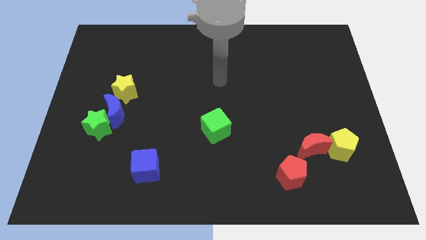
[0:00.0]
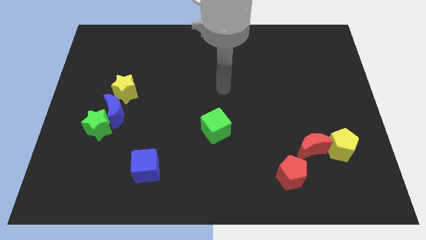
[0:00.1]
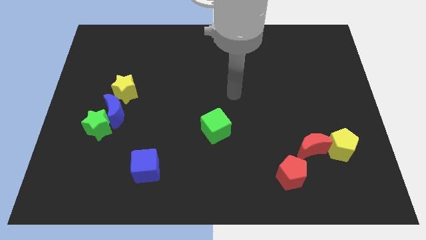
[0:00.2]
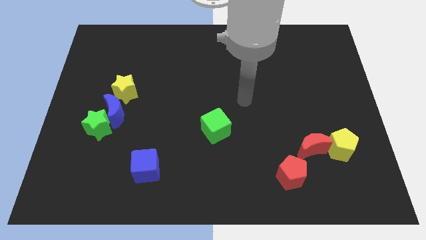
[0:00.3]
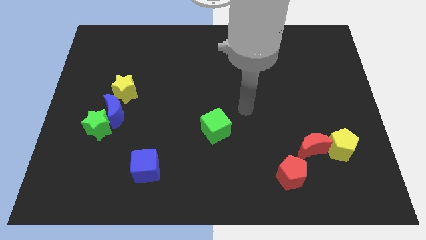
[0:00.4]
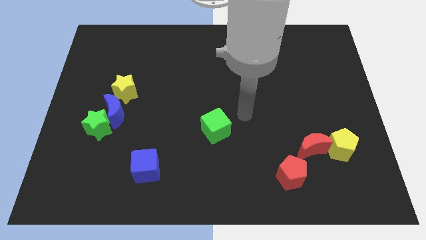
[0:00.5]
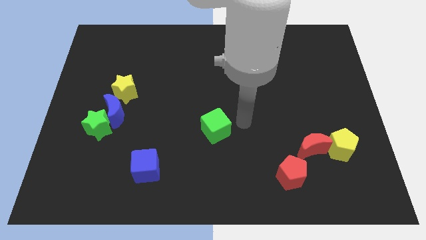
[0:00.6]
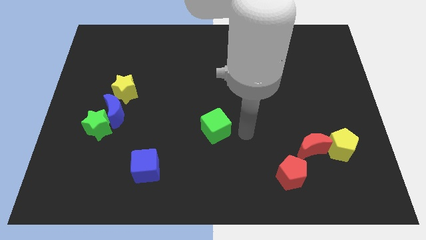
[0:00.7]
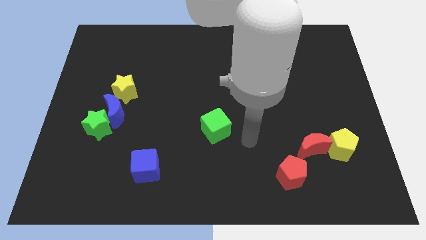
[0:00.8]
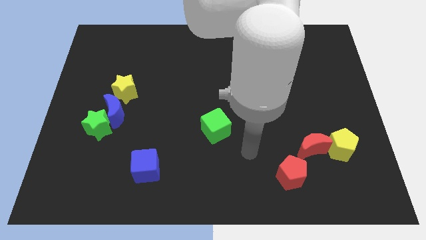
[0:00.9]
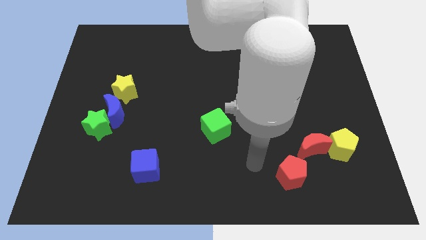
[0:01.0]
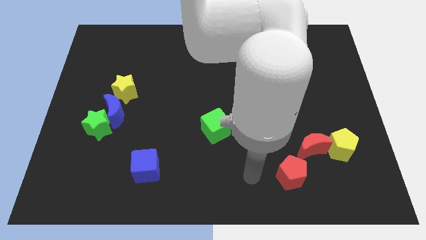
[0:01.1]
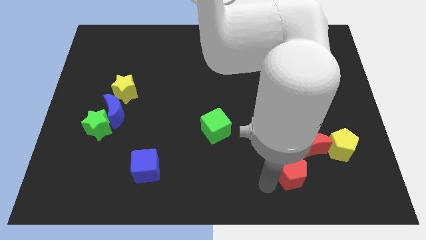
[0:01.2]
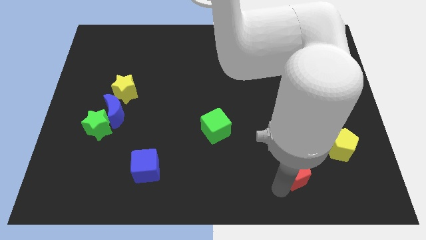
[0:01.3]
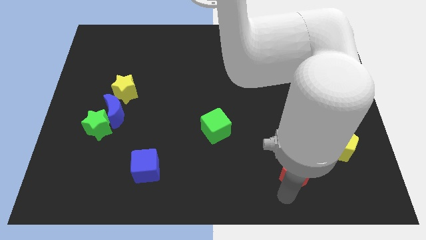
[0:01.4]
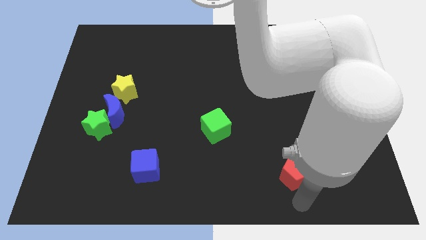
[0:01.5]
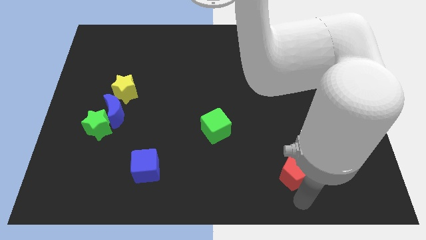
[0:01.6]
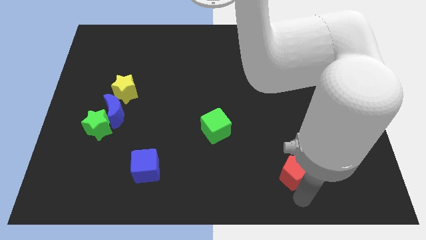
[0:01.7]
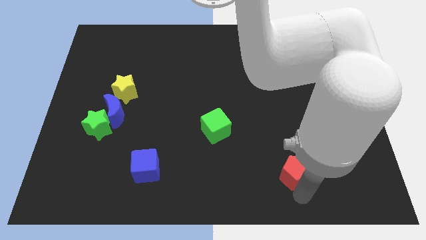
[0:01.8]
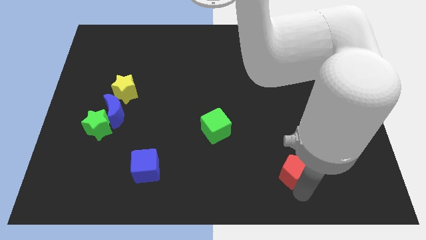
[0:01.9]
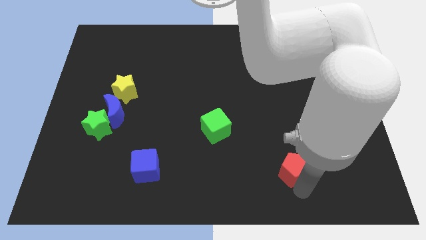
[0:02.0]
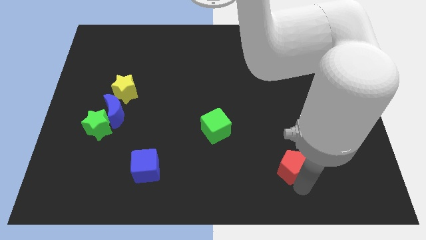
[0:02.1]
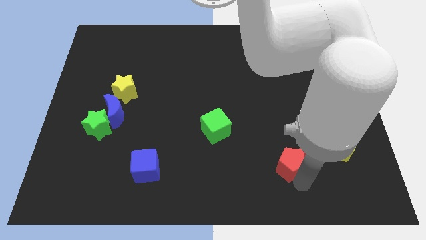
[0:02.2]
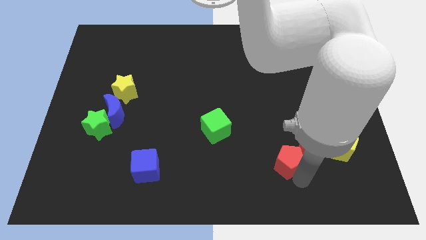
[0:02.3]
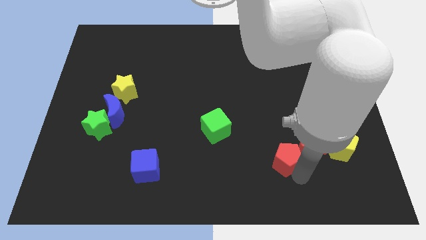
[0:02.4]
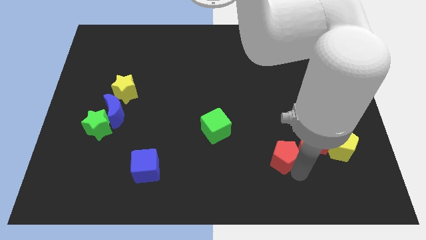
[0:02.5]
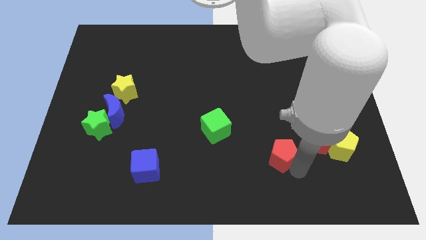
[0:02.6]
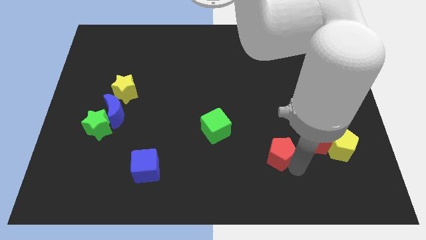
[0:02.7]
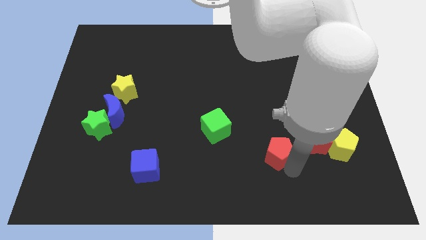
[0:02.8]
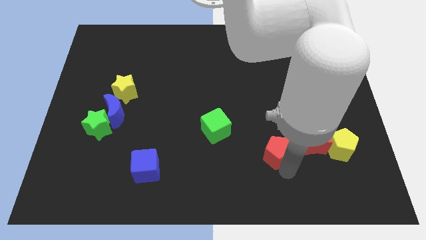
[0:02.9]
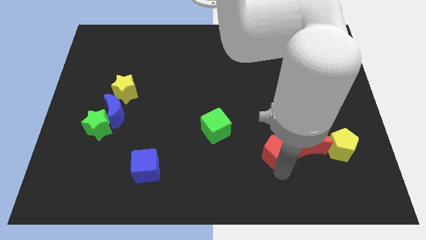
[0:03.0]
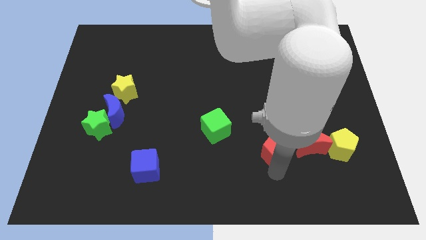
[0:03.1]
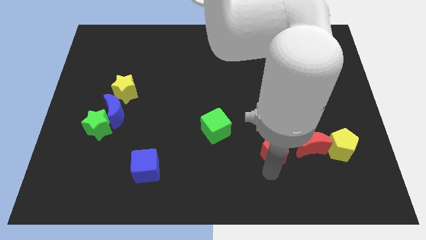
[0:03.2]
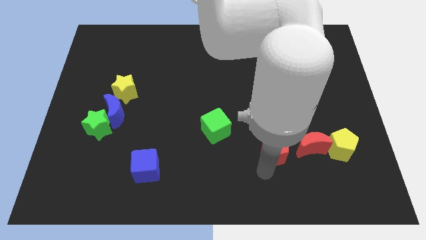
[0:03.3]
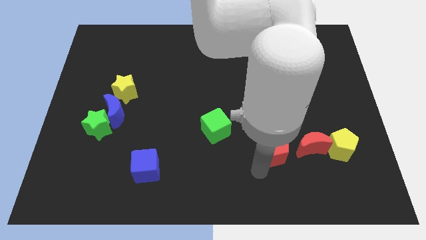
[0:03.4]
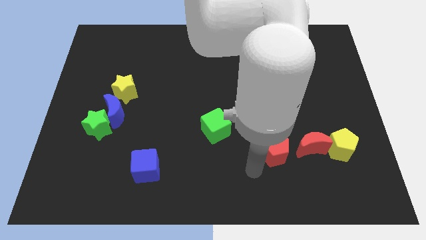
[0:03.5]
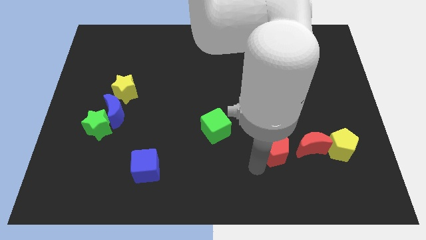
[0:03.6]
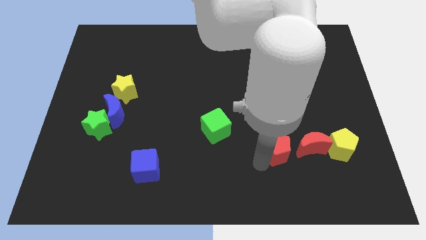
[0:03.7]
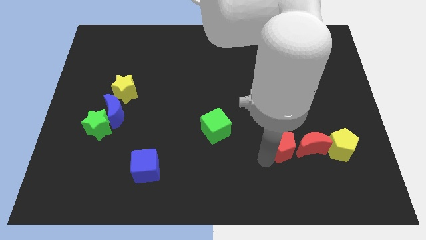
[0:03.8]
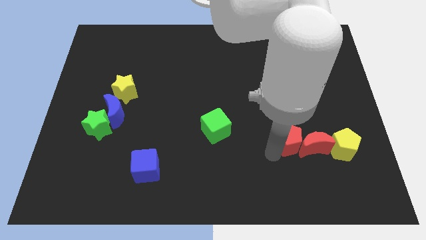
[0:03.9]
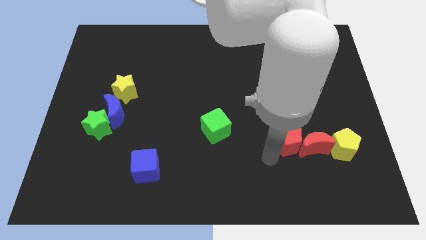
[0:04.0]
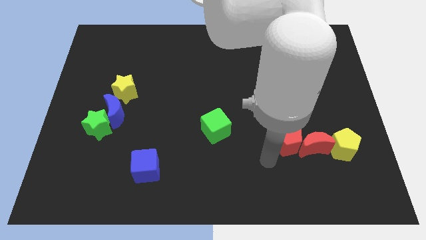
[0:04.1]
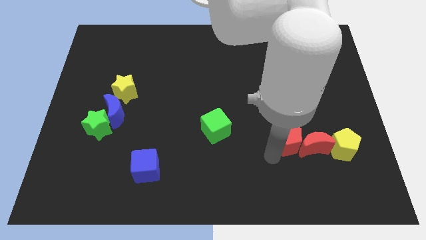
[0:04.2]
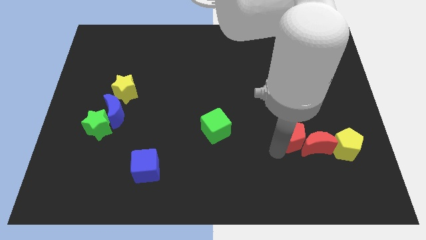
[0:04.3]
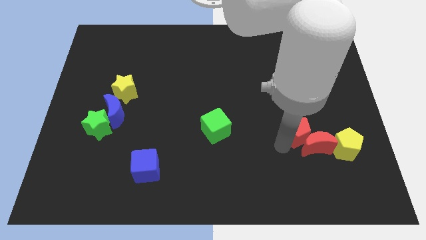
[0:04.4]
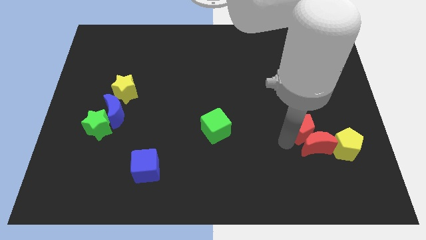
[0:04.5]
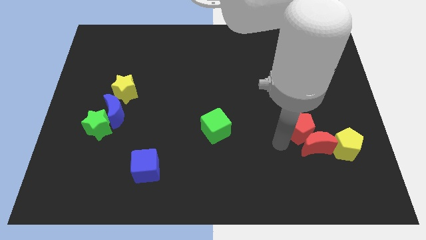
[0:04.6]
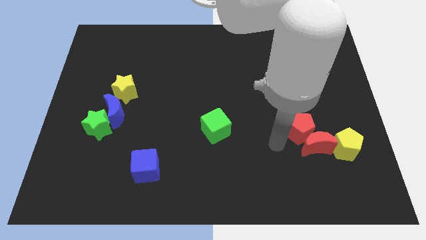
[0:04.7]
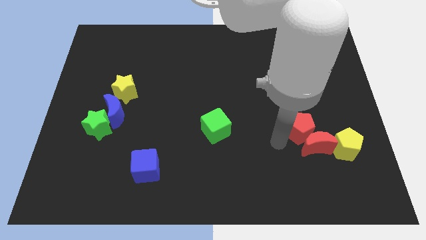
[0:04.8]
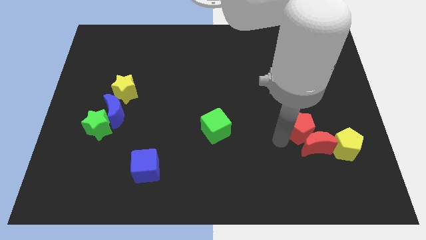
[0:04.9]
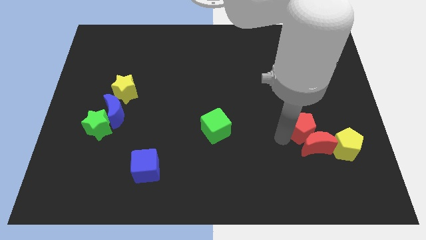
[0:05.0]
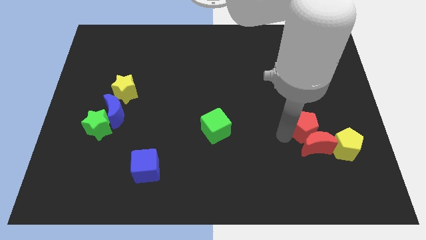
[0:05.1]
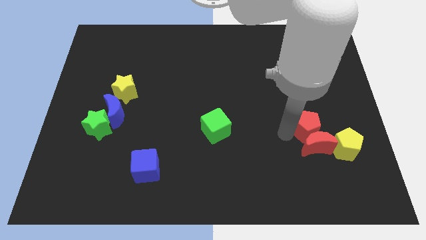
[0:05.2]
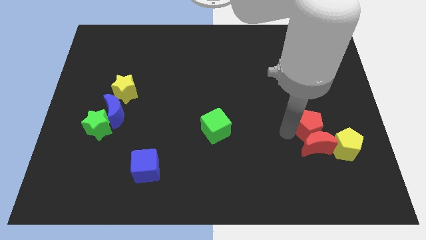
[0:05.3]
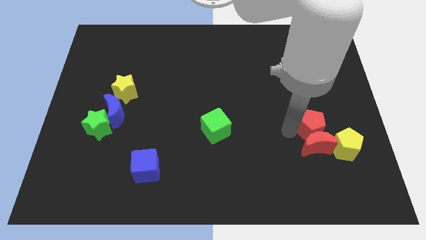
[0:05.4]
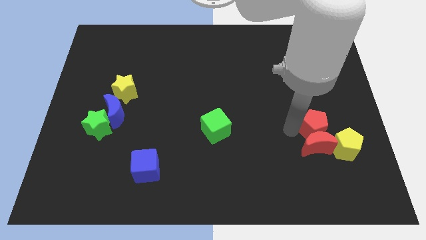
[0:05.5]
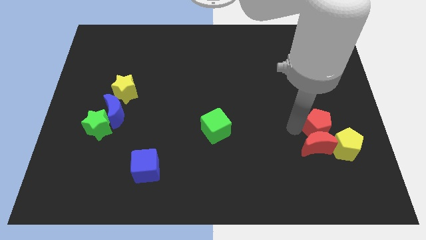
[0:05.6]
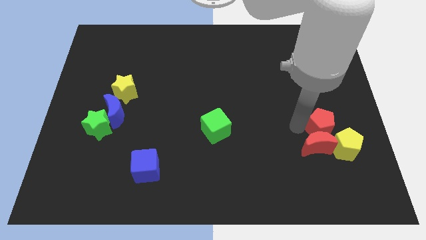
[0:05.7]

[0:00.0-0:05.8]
slide the red pentagon above the yellow pentagon

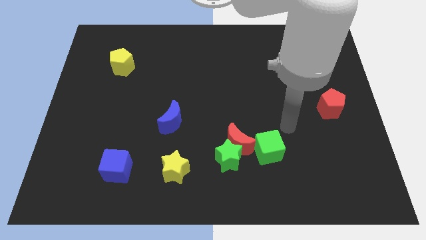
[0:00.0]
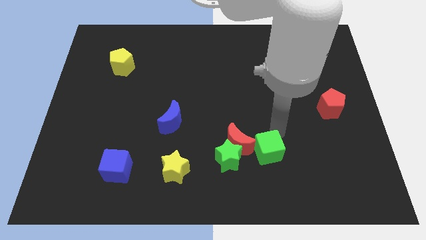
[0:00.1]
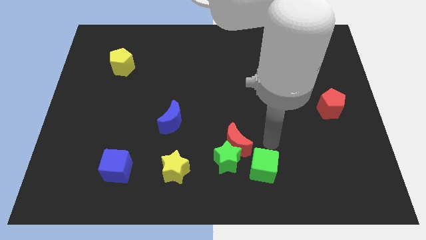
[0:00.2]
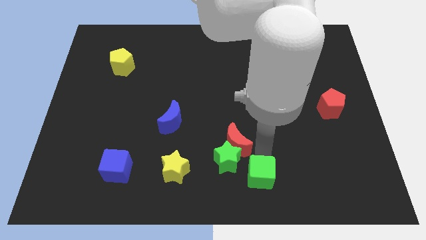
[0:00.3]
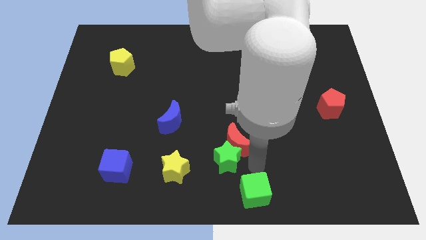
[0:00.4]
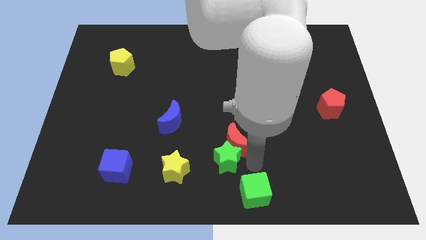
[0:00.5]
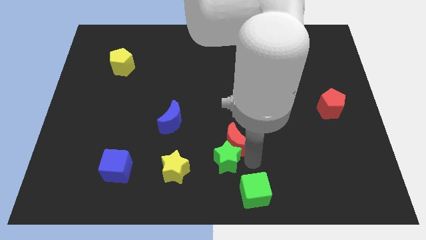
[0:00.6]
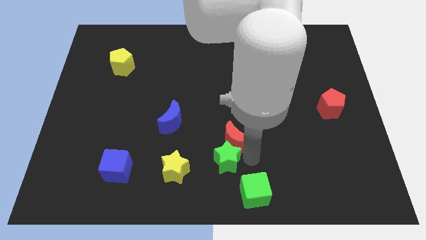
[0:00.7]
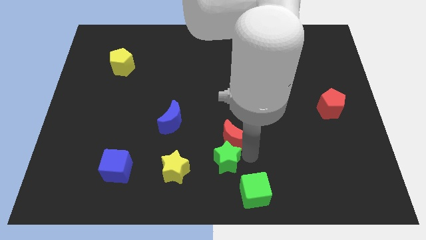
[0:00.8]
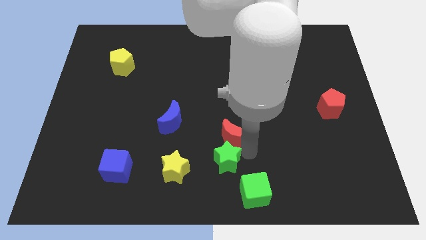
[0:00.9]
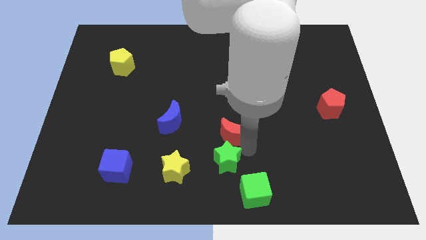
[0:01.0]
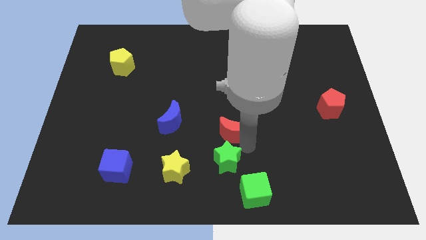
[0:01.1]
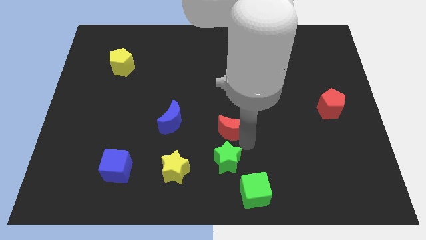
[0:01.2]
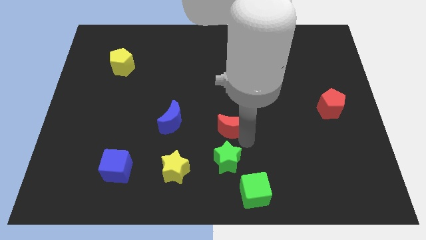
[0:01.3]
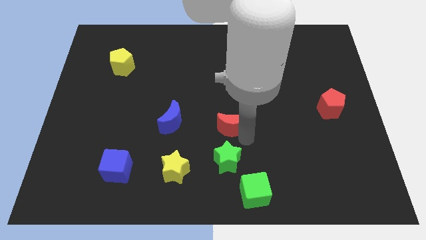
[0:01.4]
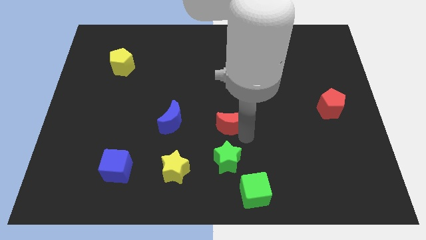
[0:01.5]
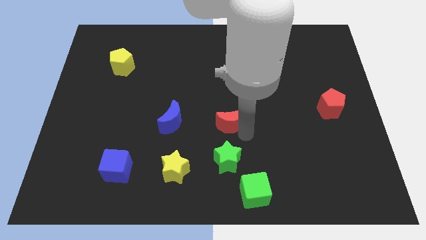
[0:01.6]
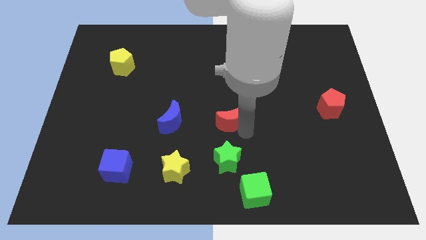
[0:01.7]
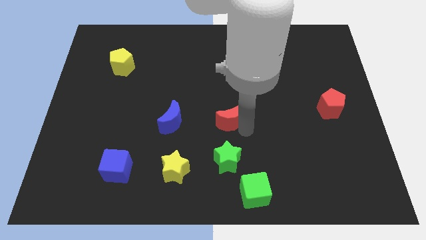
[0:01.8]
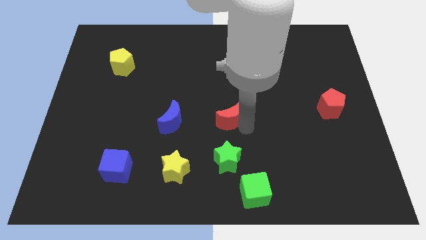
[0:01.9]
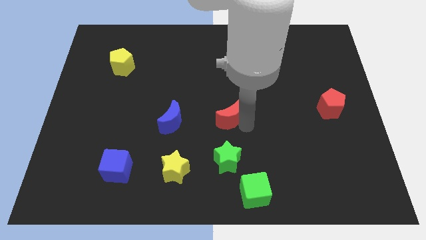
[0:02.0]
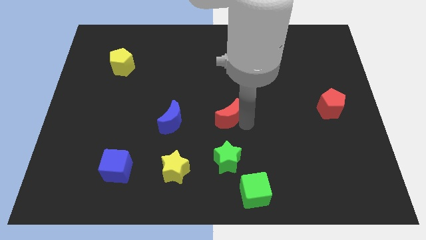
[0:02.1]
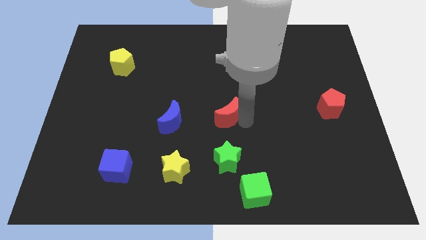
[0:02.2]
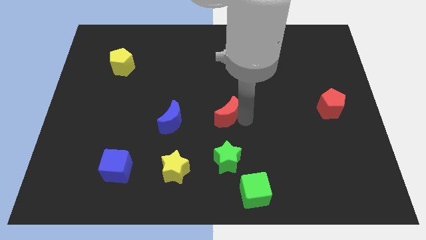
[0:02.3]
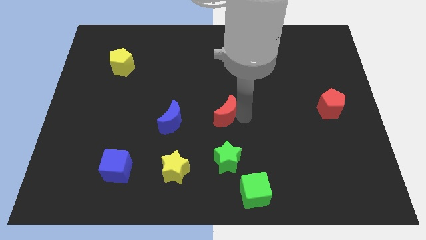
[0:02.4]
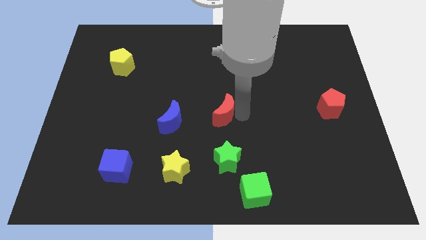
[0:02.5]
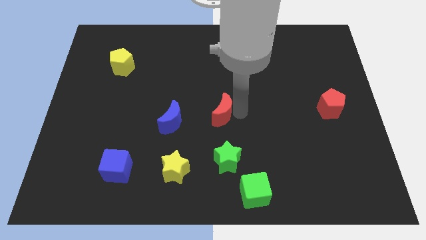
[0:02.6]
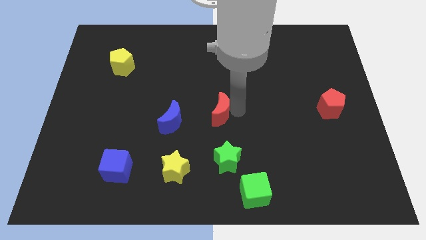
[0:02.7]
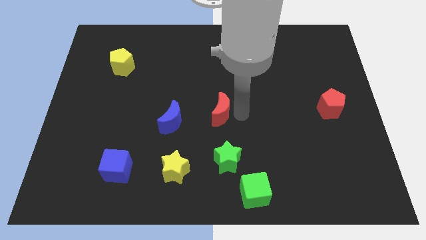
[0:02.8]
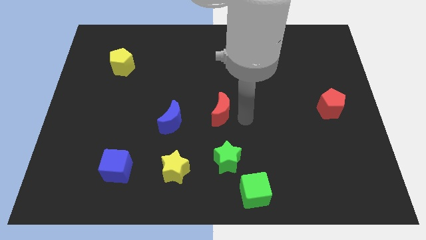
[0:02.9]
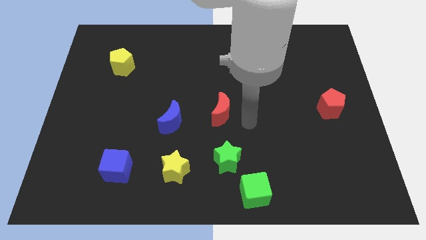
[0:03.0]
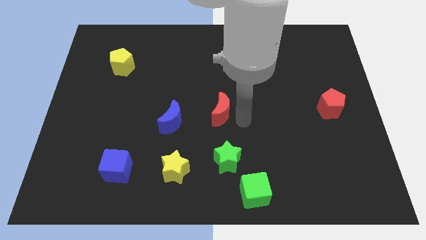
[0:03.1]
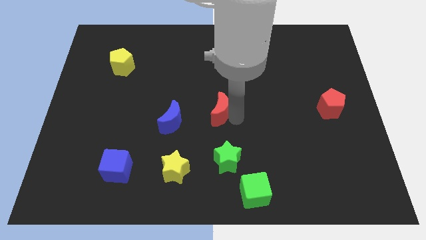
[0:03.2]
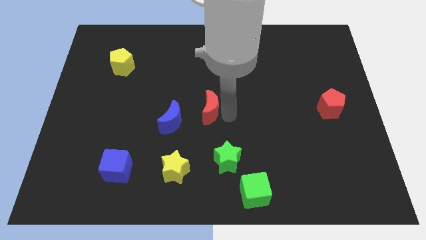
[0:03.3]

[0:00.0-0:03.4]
slide the red moon to the top right side of the blue moon
